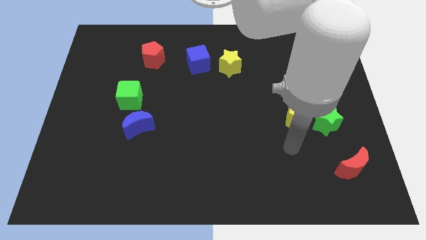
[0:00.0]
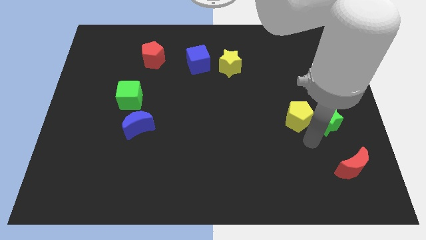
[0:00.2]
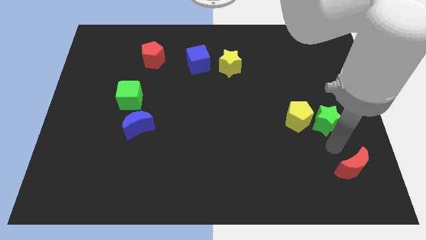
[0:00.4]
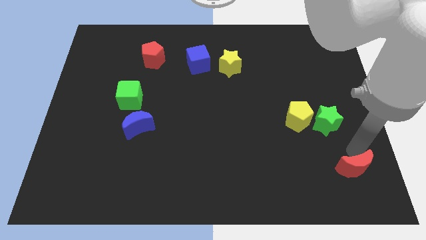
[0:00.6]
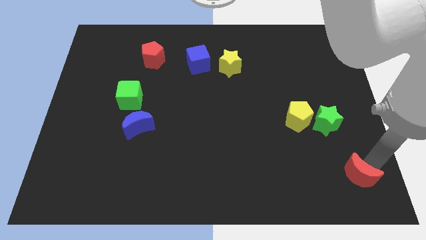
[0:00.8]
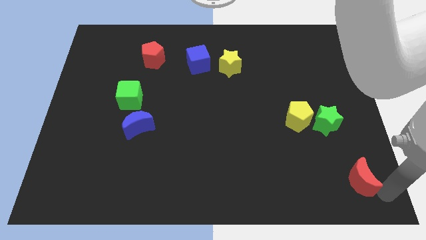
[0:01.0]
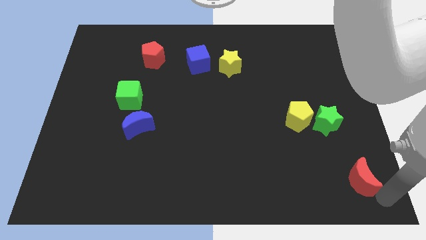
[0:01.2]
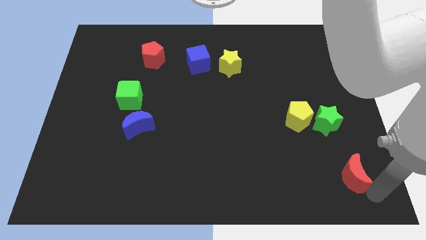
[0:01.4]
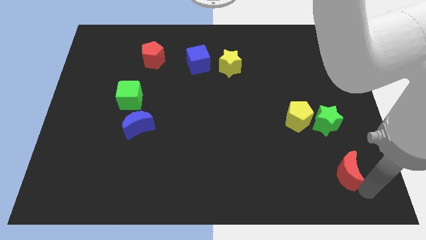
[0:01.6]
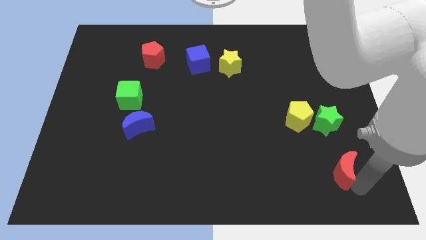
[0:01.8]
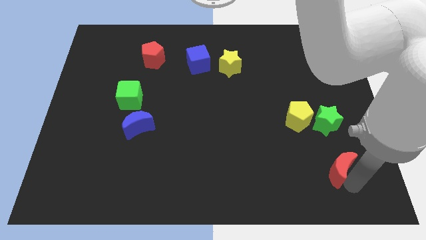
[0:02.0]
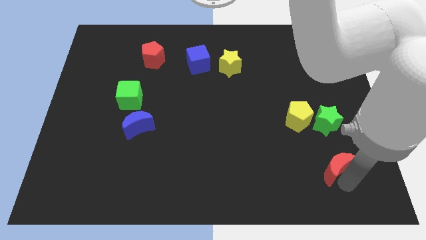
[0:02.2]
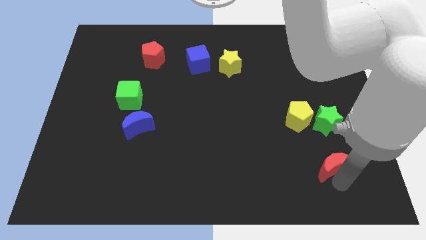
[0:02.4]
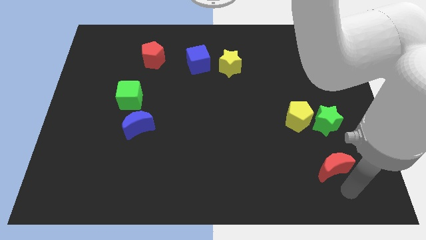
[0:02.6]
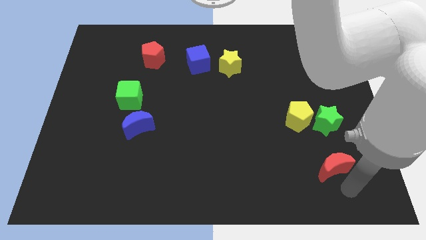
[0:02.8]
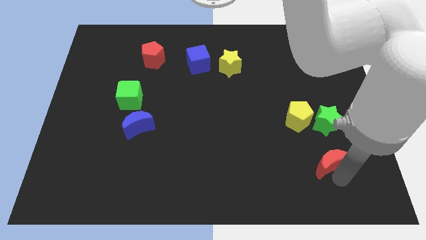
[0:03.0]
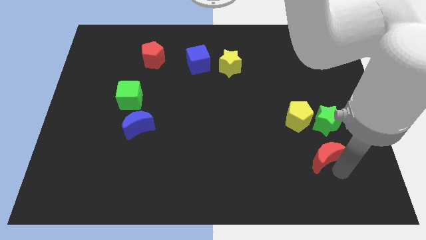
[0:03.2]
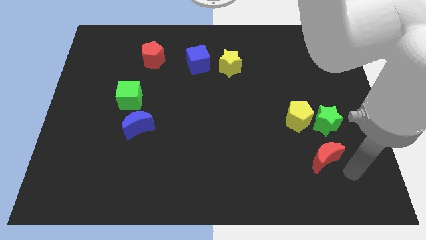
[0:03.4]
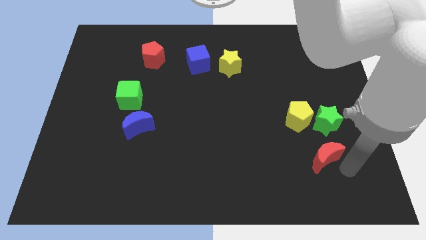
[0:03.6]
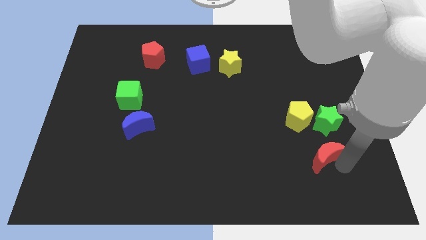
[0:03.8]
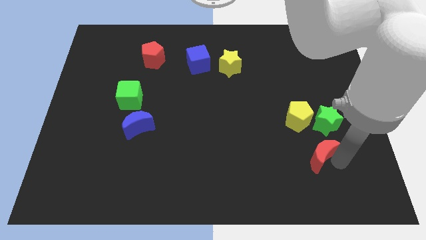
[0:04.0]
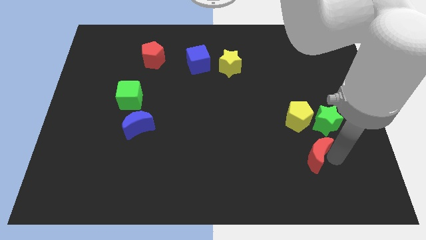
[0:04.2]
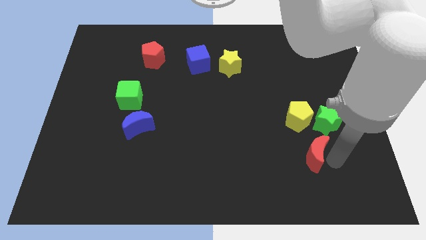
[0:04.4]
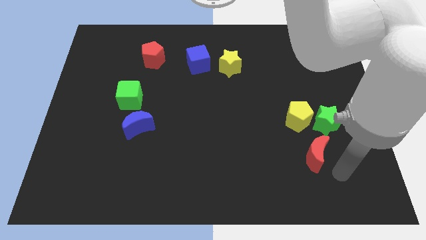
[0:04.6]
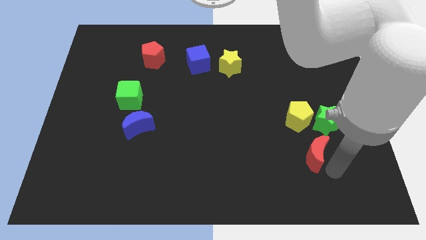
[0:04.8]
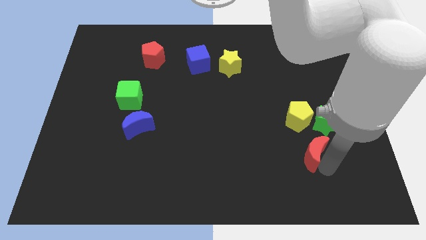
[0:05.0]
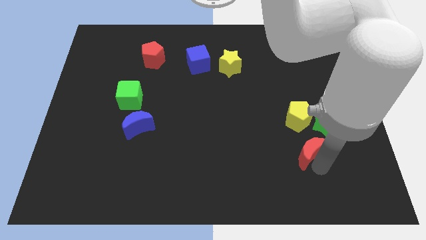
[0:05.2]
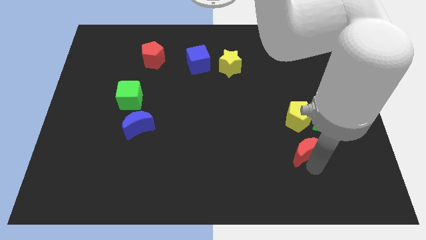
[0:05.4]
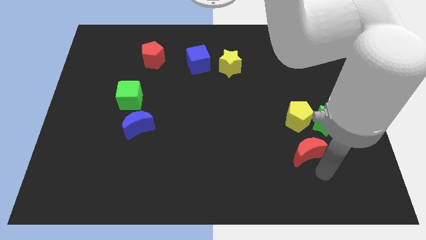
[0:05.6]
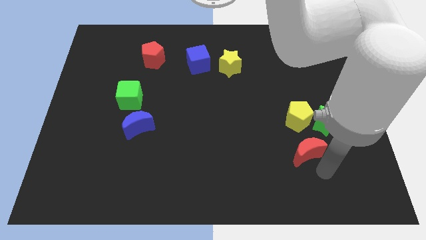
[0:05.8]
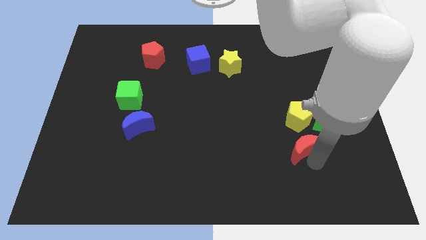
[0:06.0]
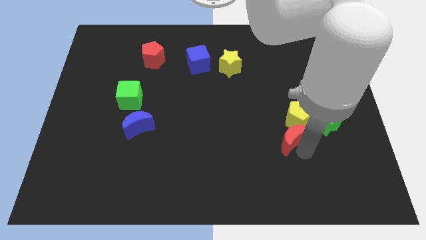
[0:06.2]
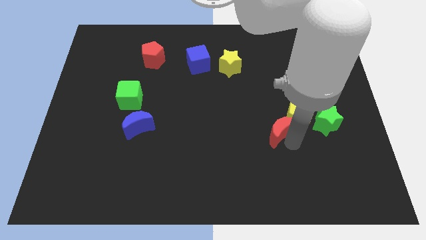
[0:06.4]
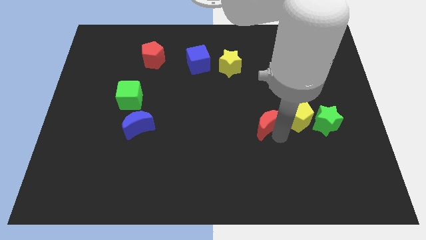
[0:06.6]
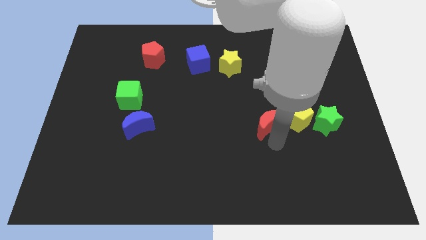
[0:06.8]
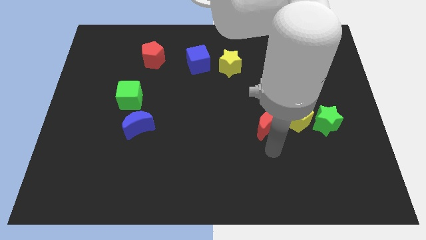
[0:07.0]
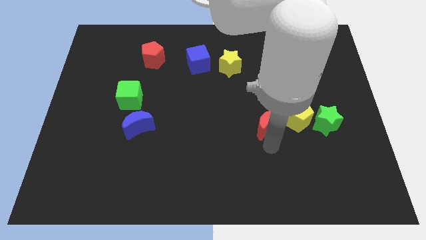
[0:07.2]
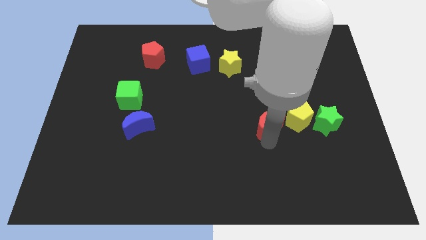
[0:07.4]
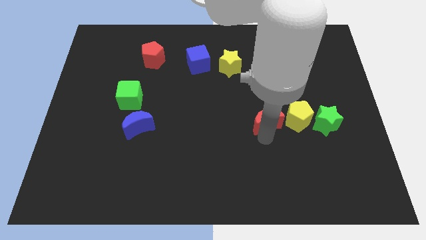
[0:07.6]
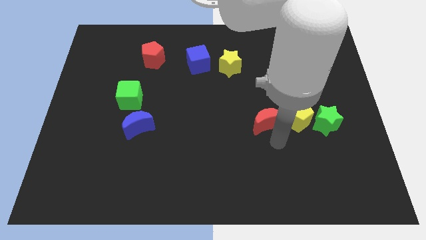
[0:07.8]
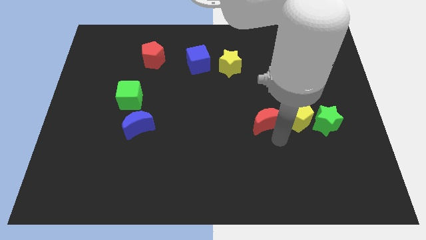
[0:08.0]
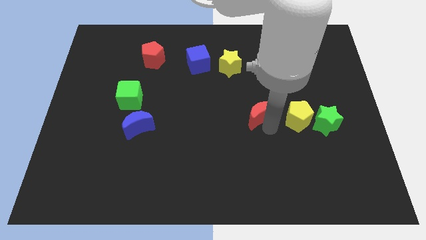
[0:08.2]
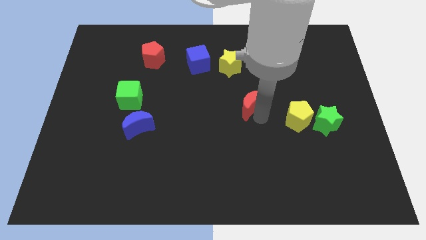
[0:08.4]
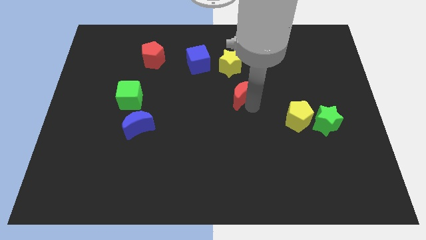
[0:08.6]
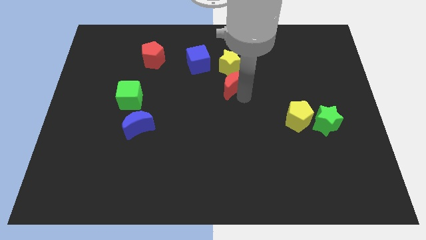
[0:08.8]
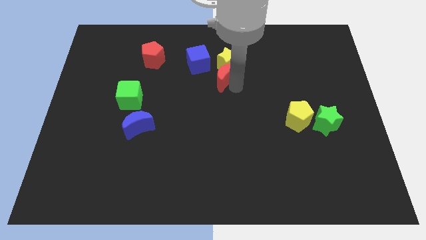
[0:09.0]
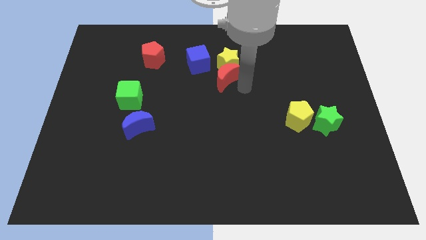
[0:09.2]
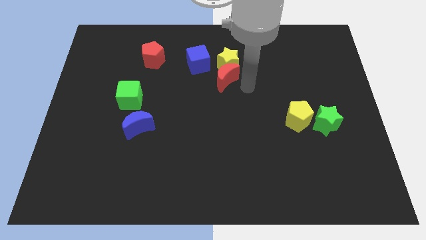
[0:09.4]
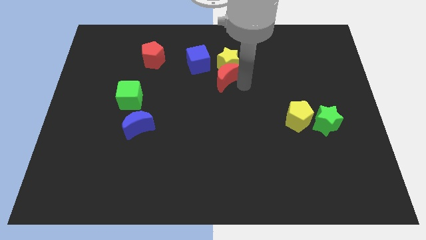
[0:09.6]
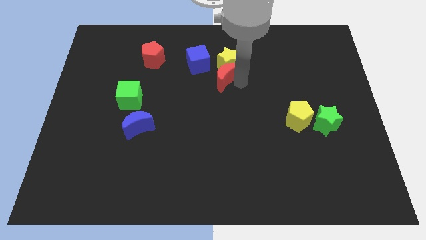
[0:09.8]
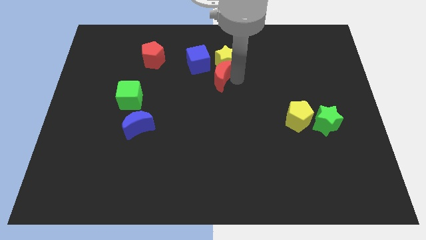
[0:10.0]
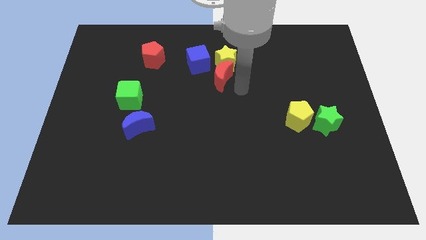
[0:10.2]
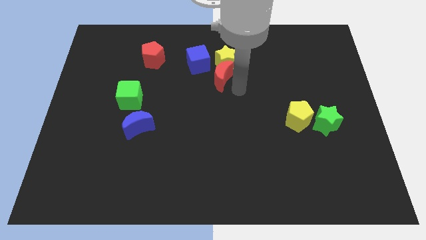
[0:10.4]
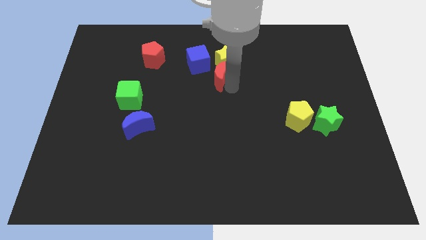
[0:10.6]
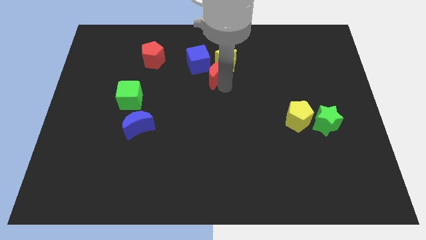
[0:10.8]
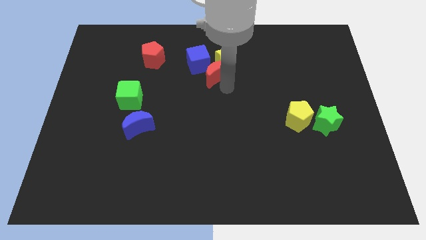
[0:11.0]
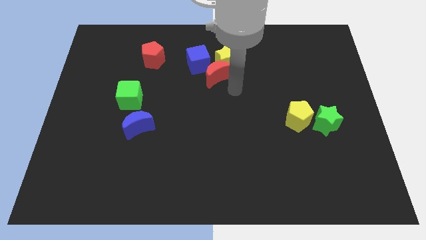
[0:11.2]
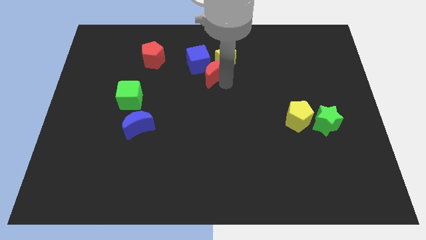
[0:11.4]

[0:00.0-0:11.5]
put the red moon next to the blue cube

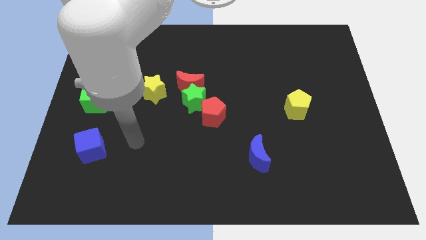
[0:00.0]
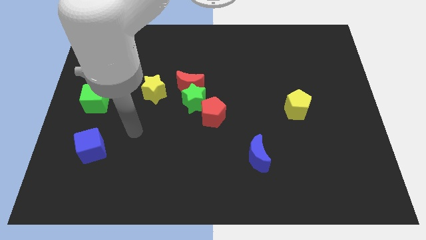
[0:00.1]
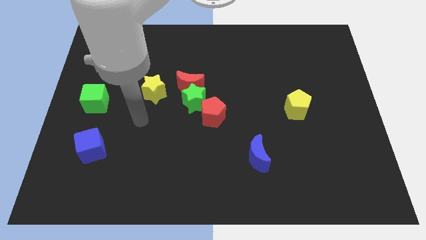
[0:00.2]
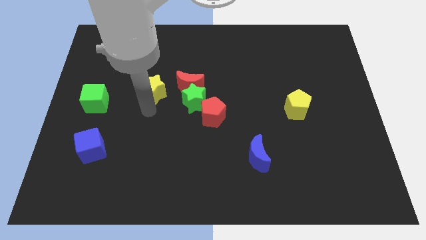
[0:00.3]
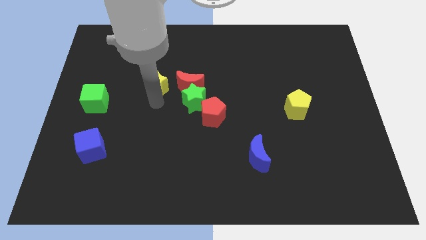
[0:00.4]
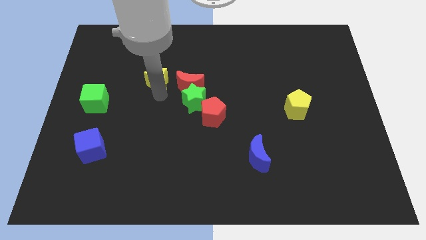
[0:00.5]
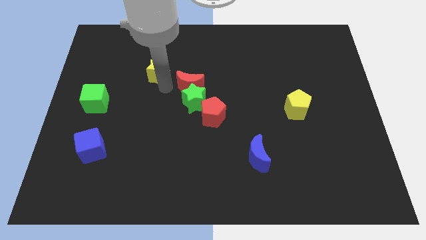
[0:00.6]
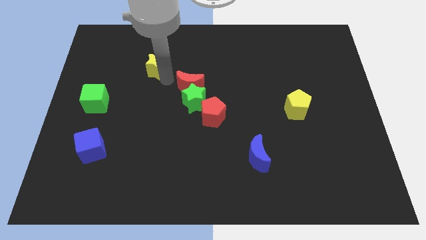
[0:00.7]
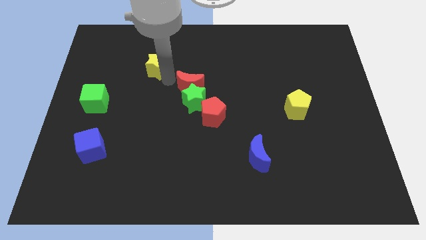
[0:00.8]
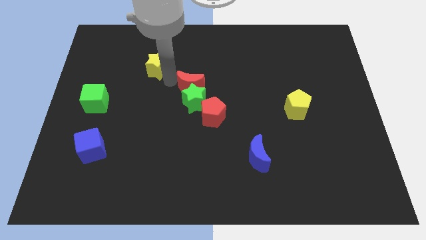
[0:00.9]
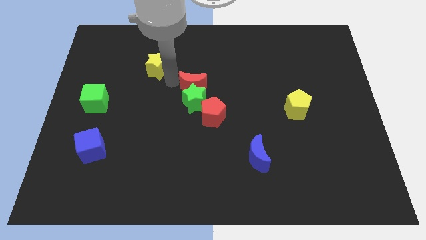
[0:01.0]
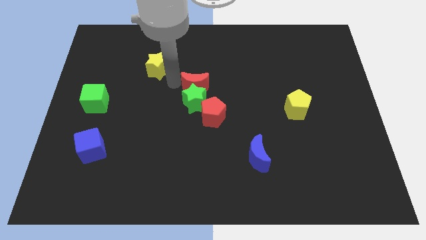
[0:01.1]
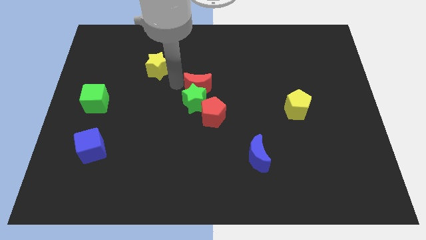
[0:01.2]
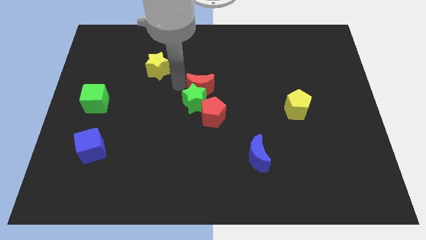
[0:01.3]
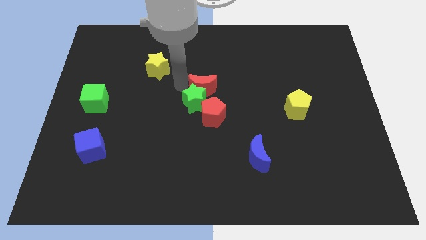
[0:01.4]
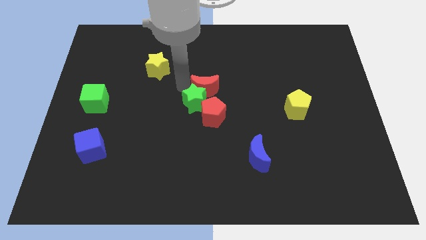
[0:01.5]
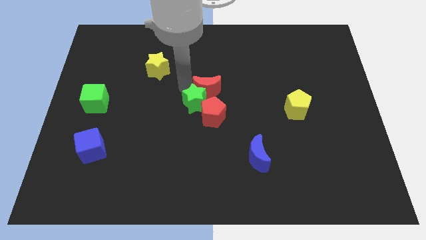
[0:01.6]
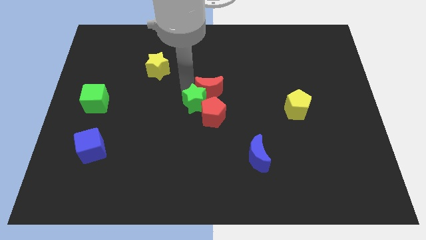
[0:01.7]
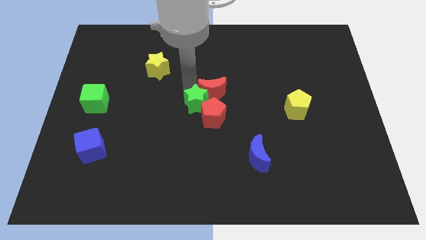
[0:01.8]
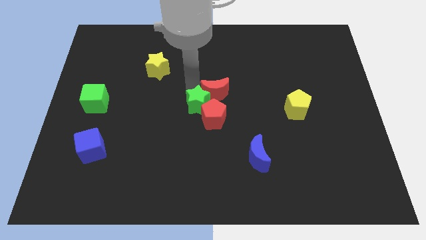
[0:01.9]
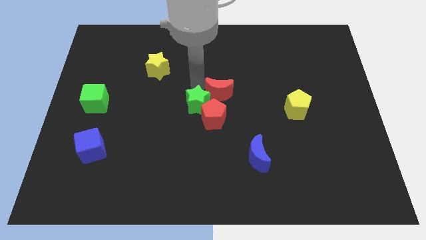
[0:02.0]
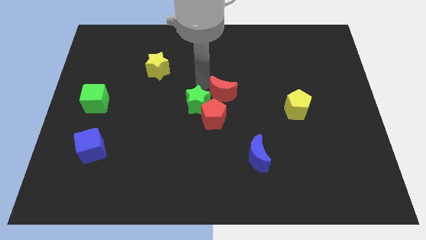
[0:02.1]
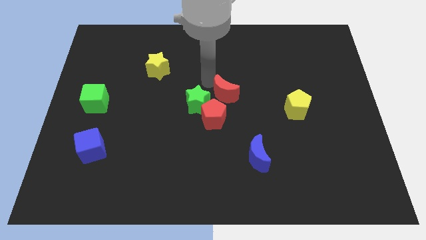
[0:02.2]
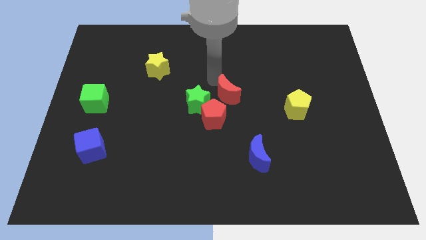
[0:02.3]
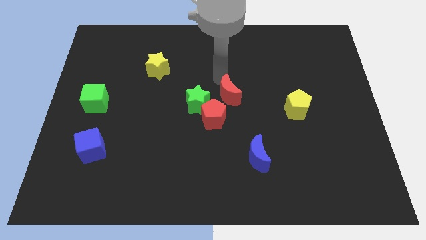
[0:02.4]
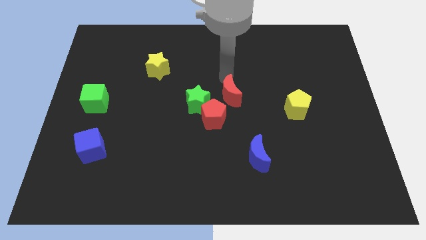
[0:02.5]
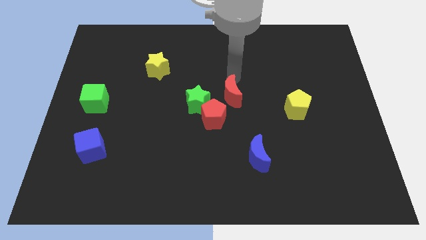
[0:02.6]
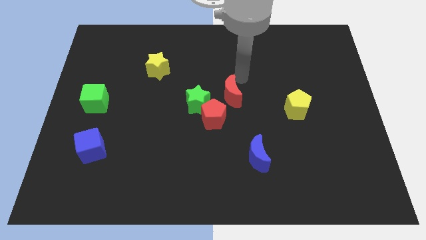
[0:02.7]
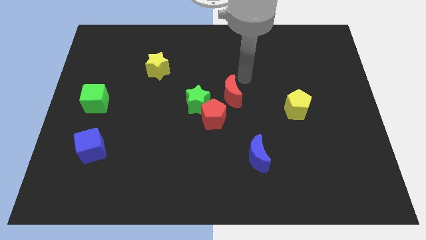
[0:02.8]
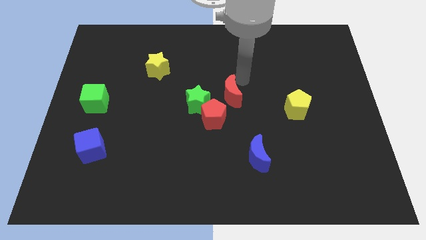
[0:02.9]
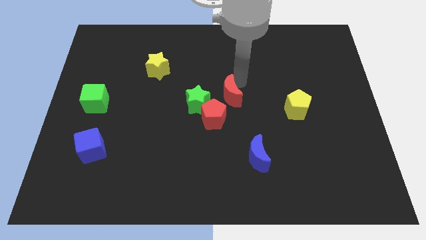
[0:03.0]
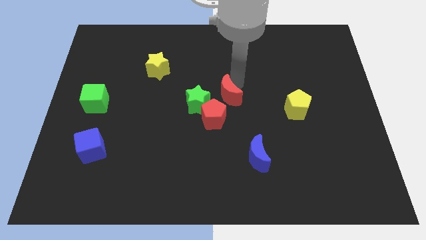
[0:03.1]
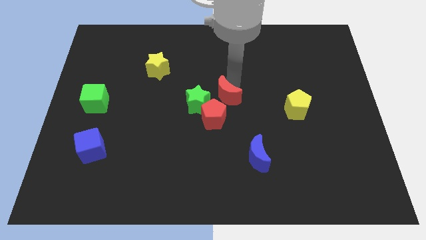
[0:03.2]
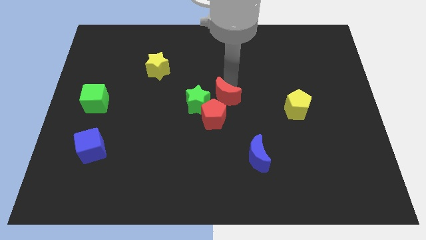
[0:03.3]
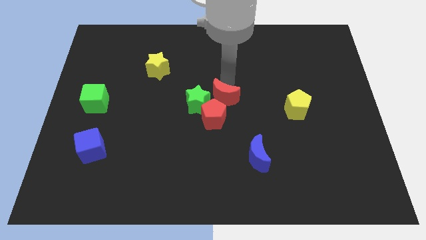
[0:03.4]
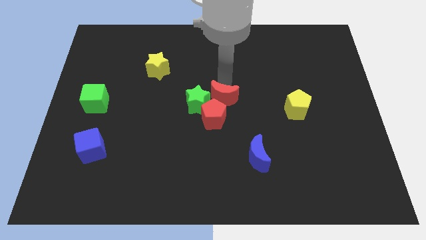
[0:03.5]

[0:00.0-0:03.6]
put the red moon to the red pentagon
